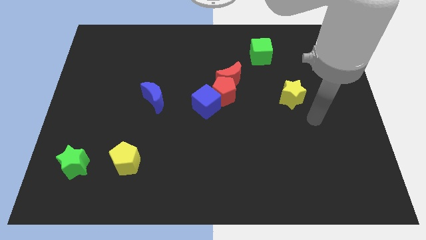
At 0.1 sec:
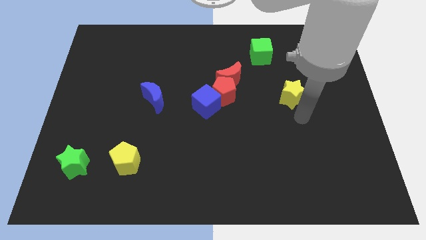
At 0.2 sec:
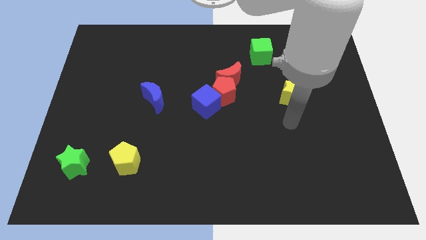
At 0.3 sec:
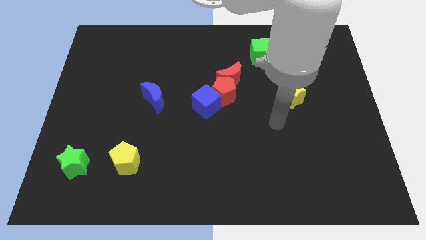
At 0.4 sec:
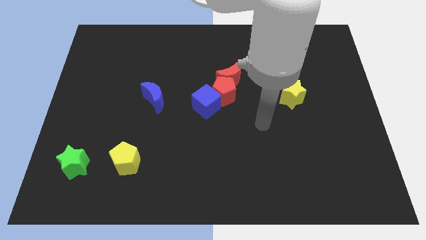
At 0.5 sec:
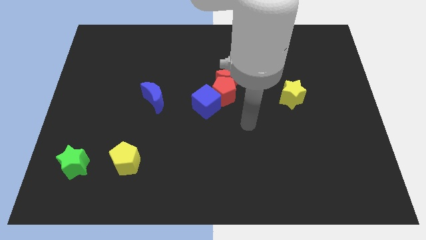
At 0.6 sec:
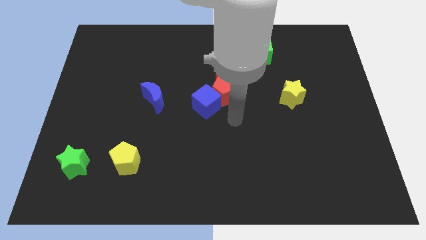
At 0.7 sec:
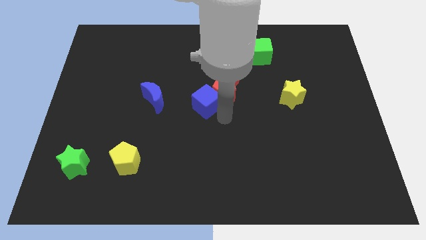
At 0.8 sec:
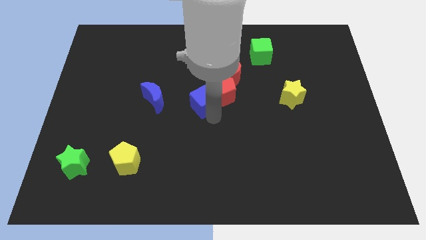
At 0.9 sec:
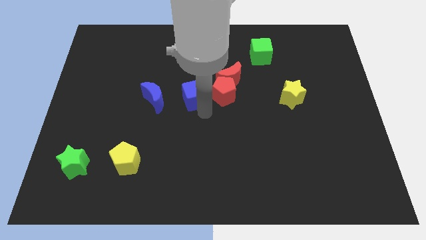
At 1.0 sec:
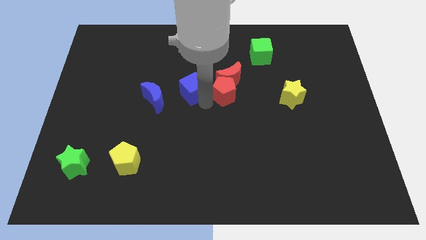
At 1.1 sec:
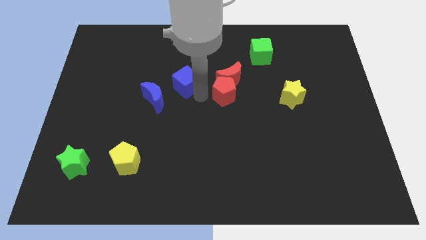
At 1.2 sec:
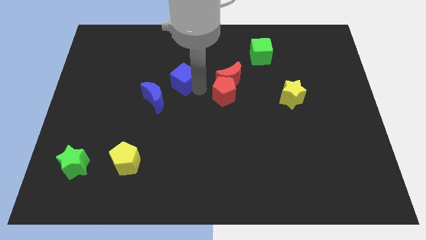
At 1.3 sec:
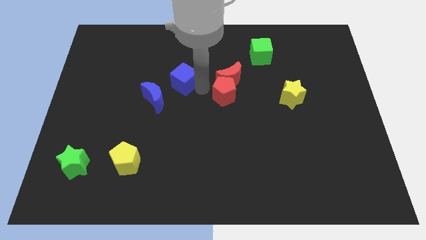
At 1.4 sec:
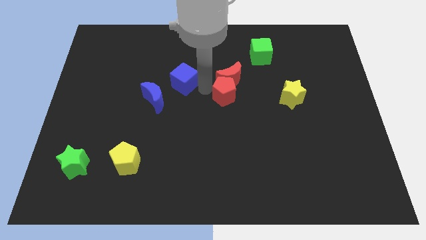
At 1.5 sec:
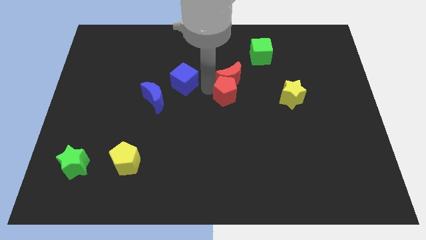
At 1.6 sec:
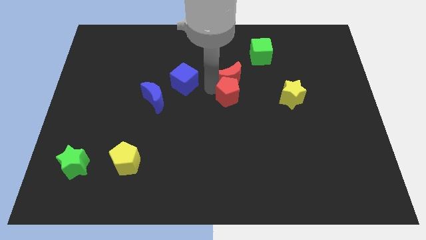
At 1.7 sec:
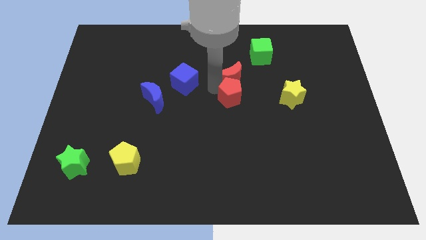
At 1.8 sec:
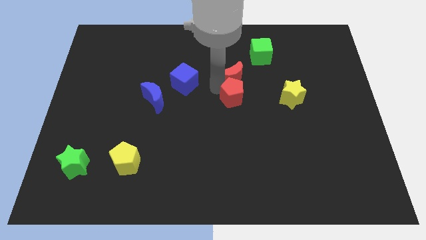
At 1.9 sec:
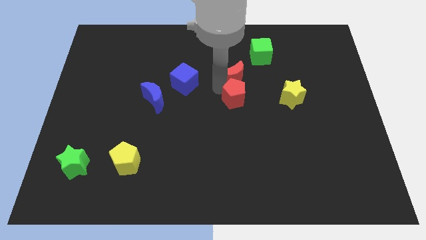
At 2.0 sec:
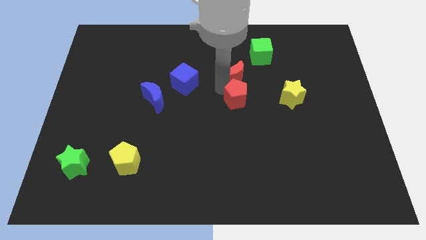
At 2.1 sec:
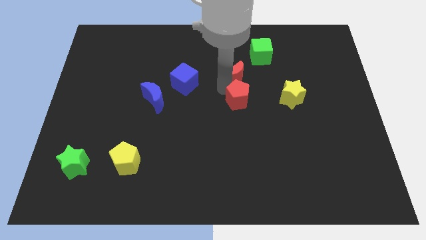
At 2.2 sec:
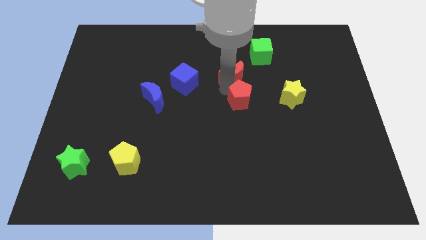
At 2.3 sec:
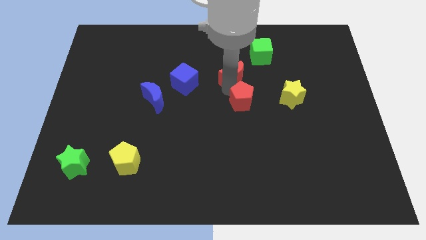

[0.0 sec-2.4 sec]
pull the red pentagon apart from the red moon and blue cube

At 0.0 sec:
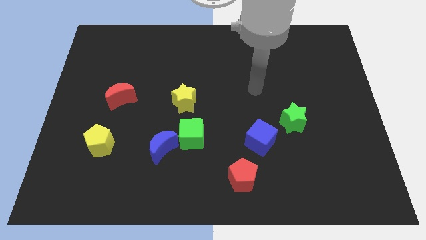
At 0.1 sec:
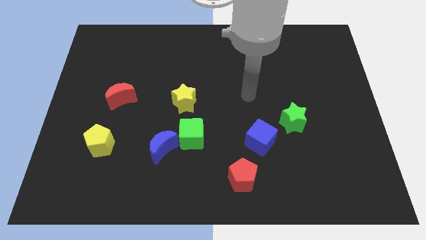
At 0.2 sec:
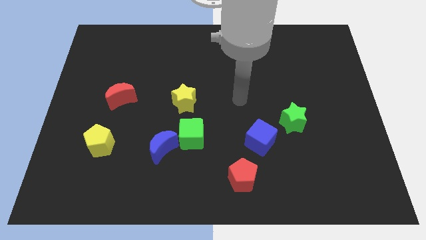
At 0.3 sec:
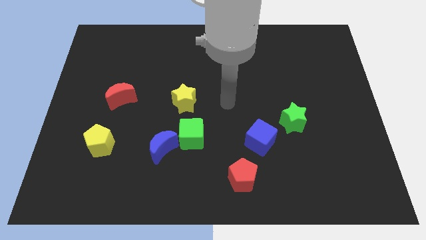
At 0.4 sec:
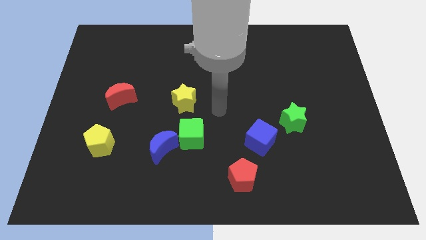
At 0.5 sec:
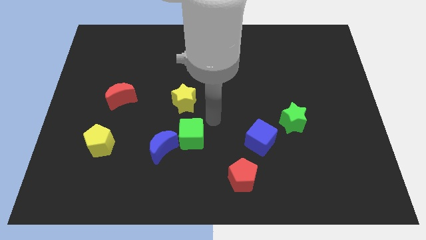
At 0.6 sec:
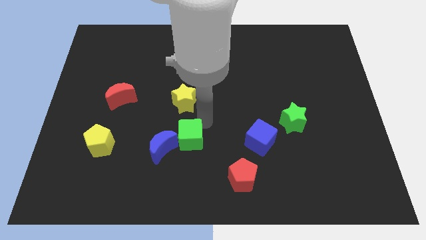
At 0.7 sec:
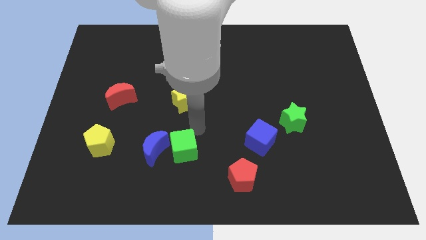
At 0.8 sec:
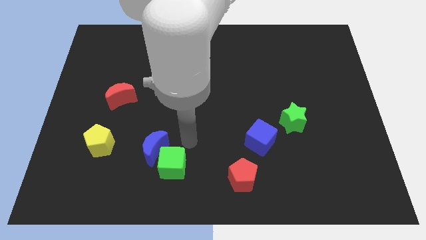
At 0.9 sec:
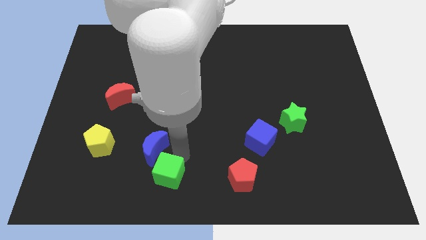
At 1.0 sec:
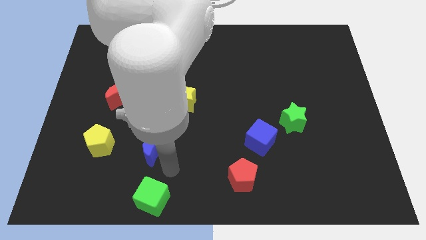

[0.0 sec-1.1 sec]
move the blue moon away from the green cube

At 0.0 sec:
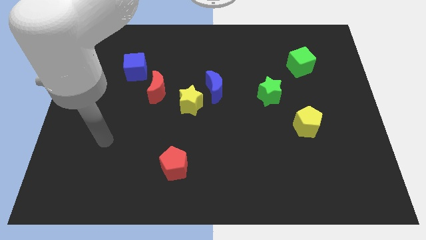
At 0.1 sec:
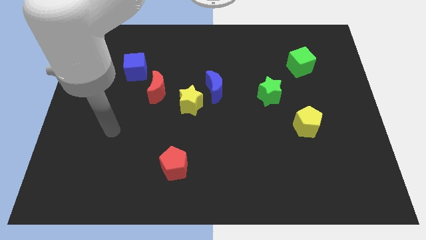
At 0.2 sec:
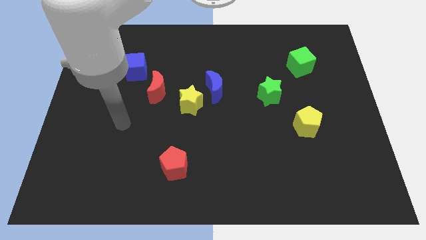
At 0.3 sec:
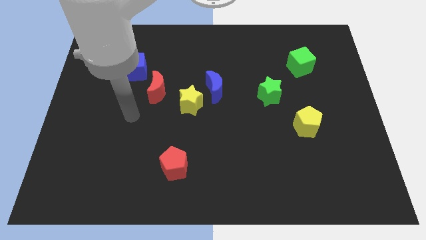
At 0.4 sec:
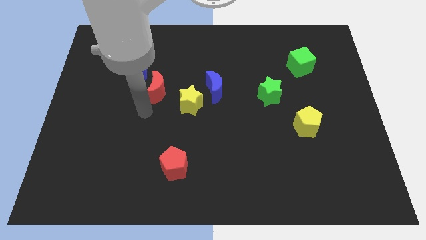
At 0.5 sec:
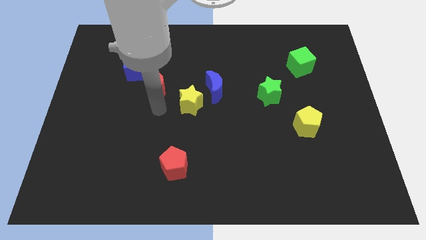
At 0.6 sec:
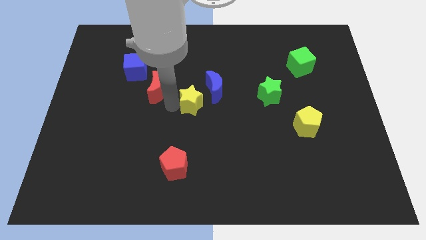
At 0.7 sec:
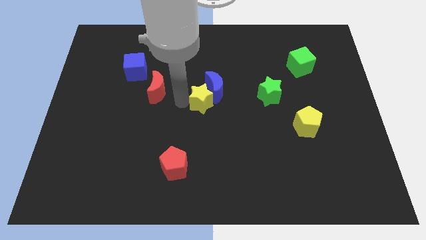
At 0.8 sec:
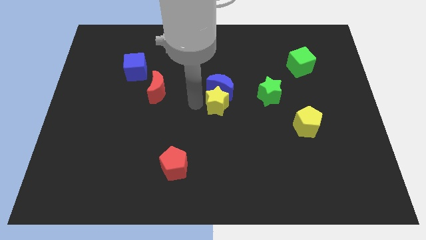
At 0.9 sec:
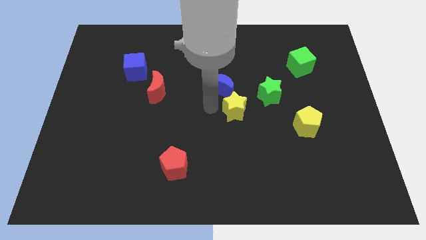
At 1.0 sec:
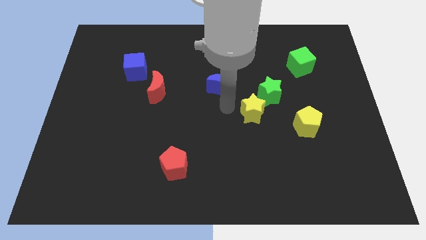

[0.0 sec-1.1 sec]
separate the blue moon from the yellow star

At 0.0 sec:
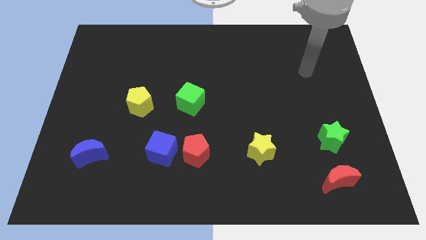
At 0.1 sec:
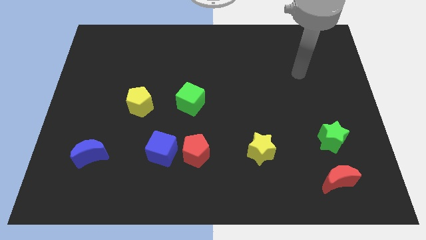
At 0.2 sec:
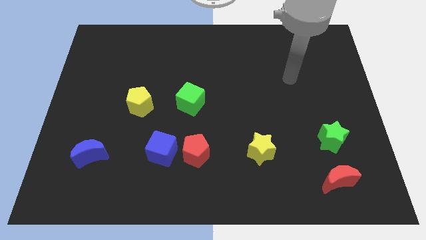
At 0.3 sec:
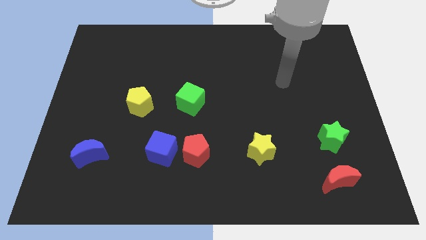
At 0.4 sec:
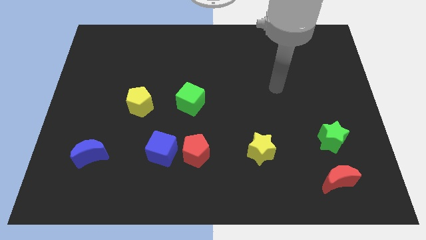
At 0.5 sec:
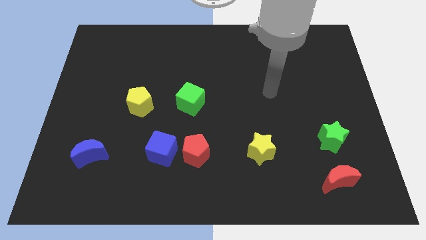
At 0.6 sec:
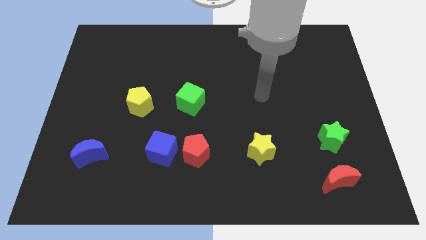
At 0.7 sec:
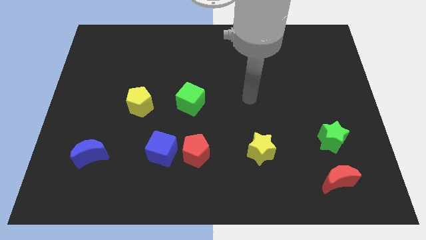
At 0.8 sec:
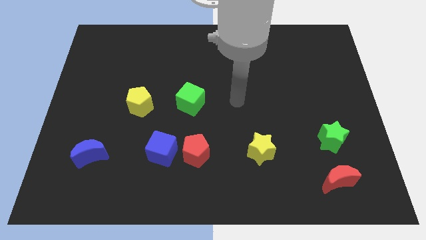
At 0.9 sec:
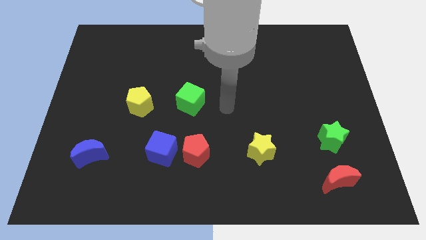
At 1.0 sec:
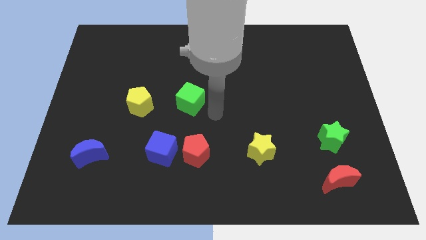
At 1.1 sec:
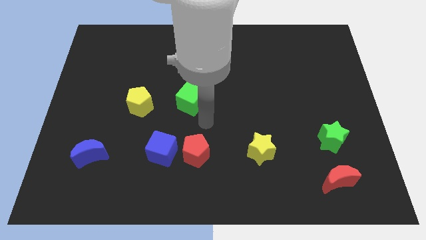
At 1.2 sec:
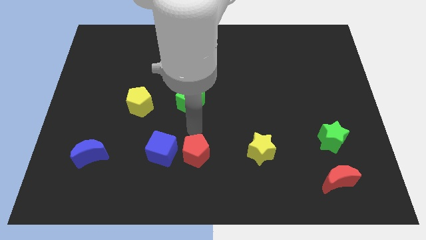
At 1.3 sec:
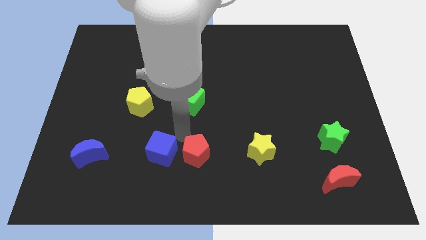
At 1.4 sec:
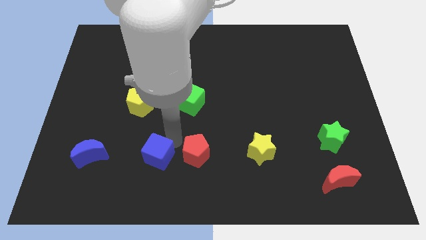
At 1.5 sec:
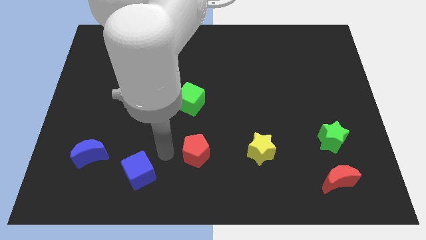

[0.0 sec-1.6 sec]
separate the red pentagon from the blue cube

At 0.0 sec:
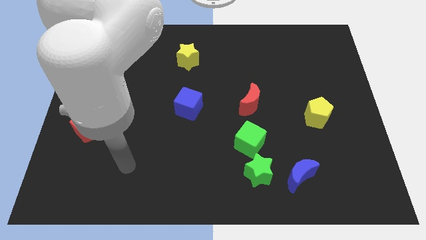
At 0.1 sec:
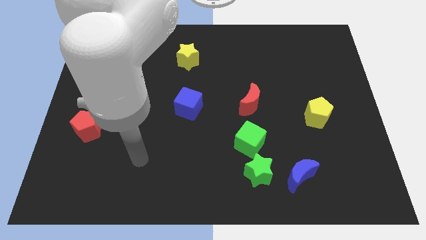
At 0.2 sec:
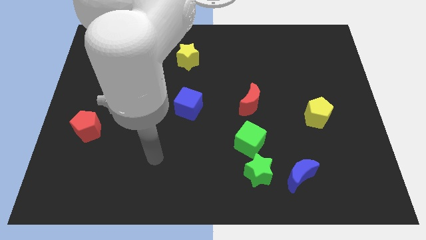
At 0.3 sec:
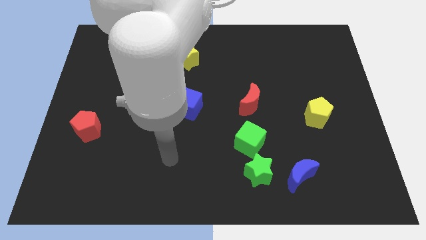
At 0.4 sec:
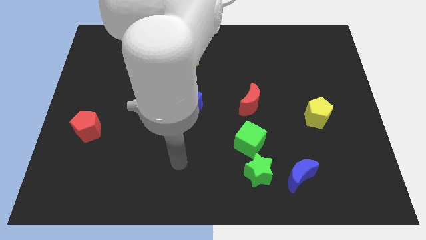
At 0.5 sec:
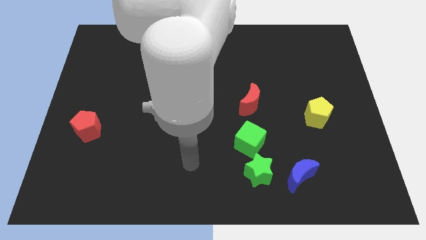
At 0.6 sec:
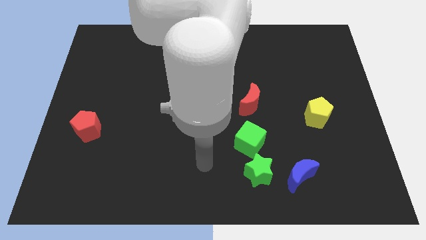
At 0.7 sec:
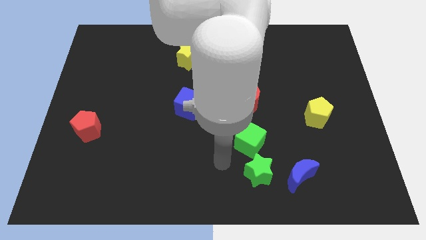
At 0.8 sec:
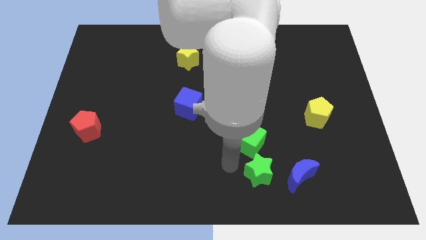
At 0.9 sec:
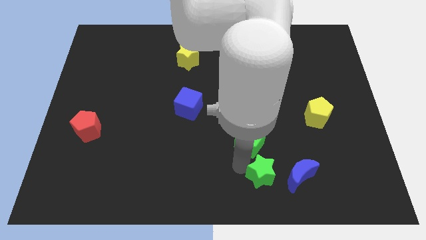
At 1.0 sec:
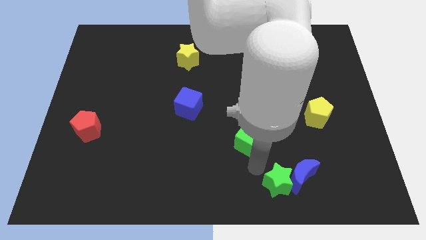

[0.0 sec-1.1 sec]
pull the green cube apart from the green star

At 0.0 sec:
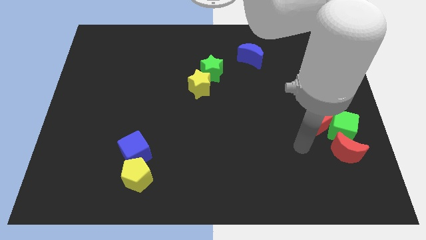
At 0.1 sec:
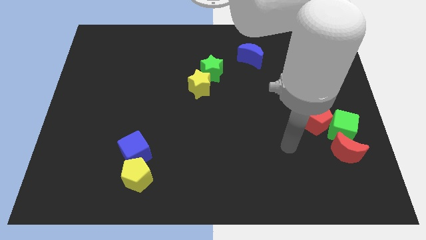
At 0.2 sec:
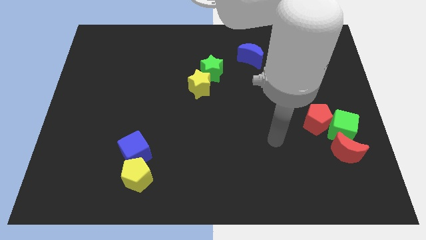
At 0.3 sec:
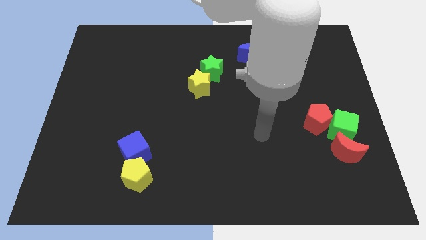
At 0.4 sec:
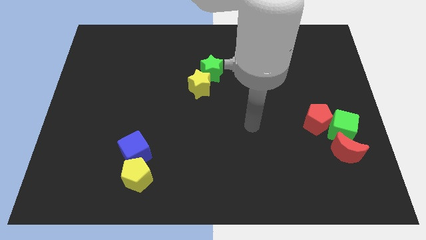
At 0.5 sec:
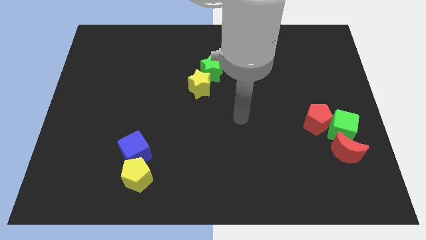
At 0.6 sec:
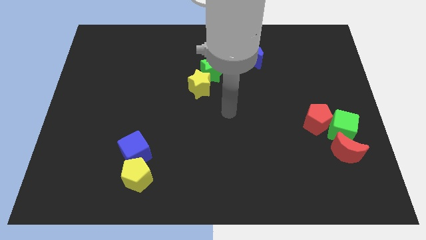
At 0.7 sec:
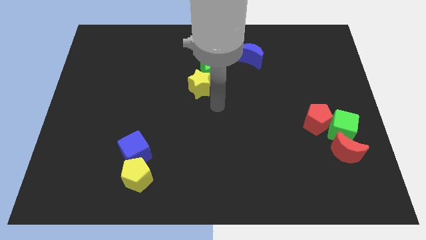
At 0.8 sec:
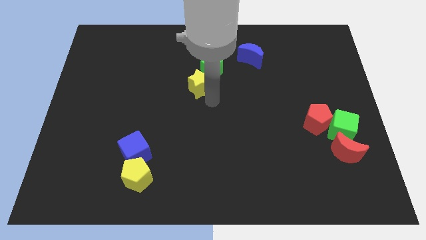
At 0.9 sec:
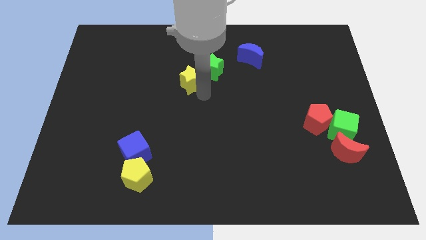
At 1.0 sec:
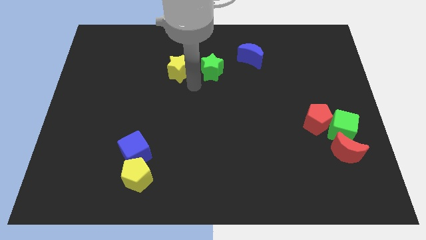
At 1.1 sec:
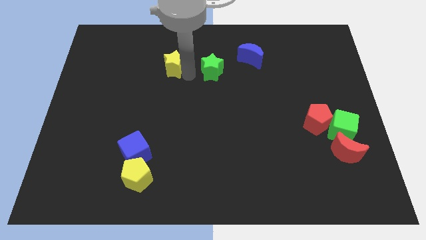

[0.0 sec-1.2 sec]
pull the green star apart from the yellow star

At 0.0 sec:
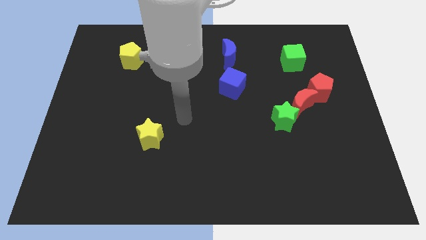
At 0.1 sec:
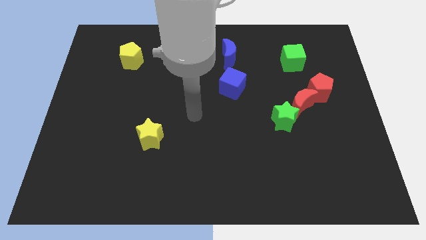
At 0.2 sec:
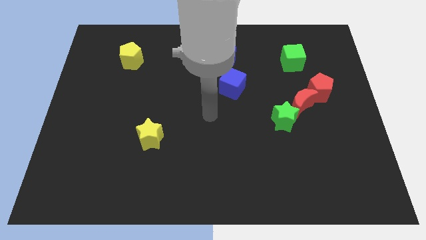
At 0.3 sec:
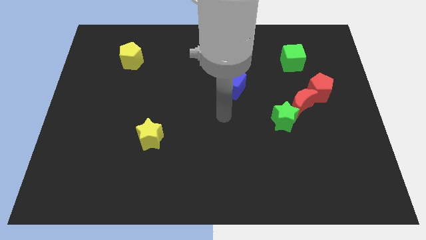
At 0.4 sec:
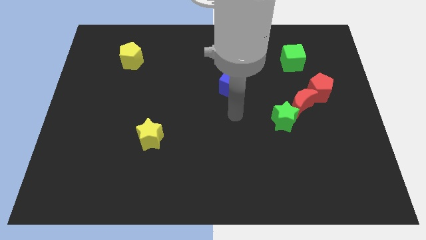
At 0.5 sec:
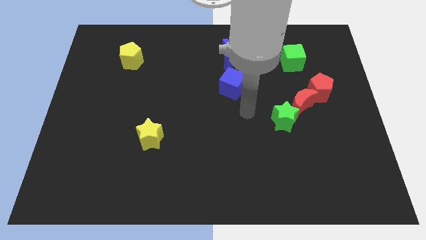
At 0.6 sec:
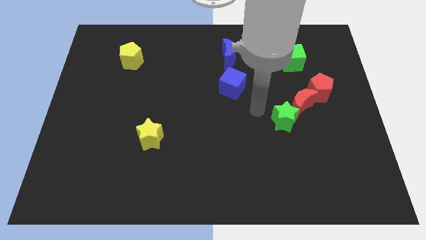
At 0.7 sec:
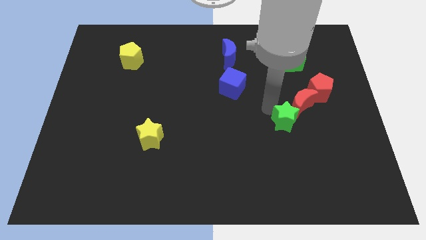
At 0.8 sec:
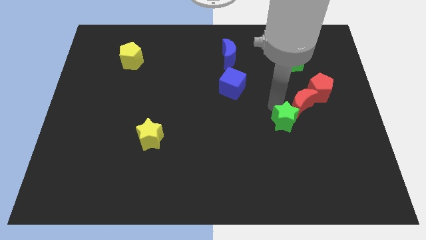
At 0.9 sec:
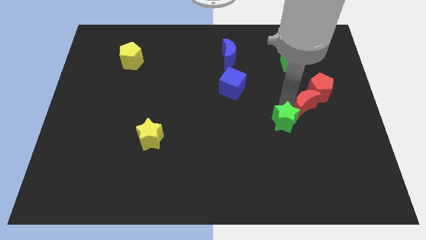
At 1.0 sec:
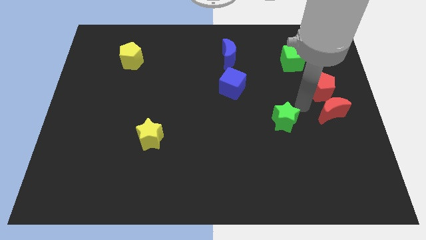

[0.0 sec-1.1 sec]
separate the green star from the red moon
